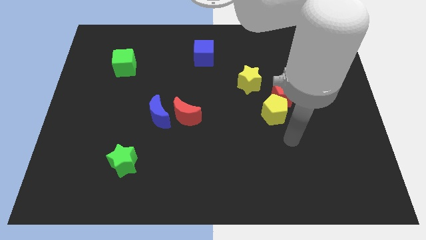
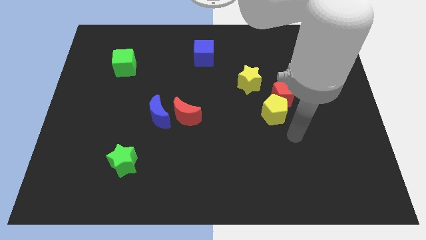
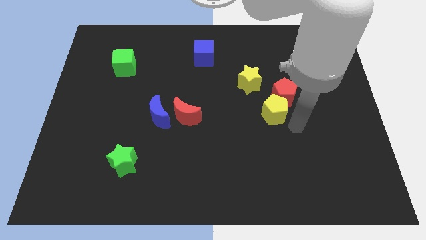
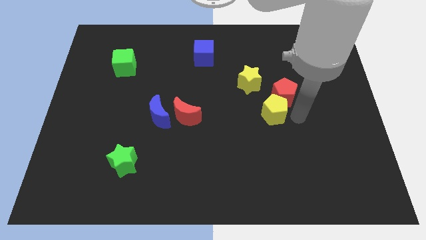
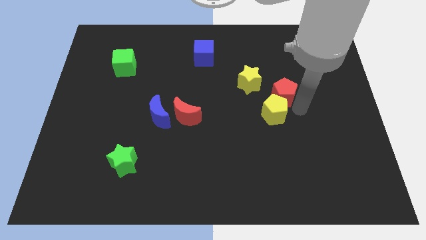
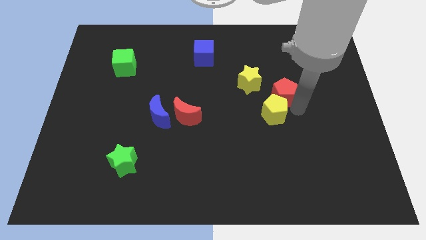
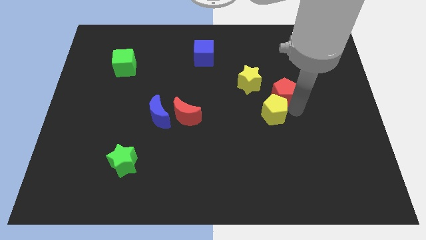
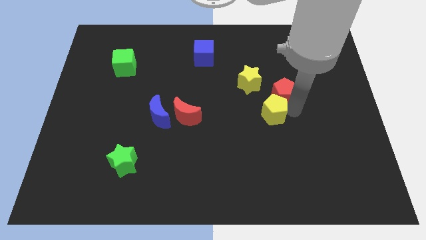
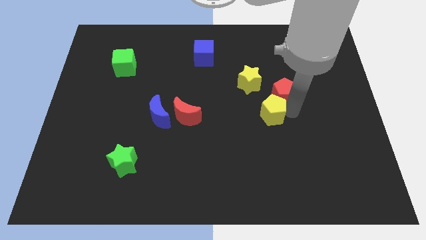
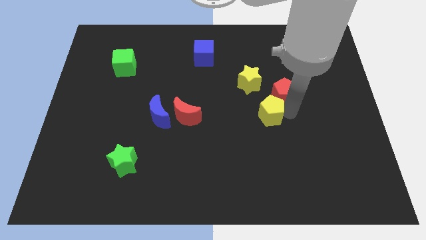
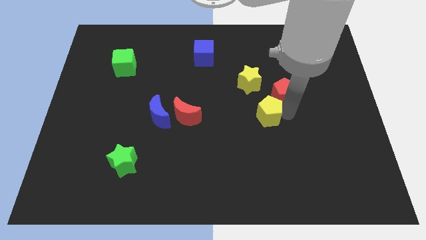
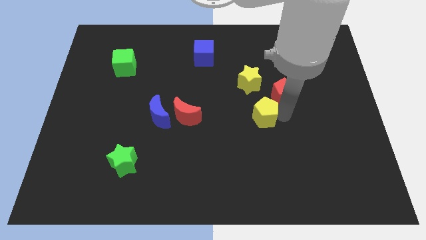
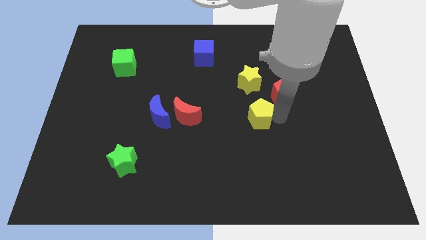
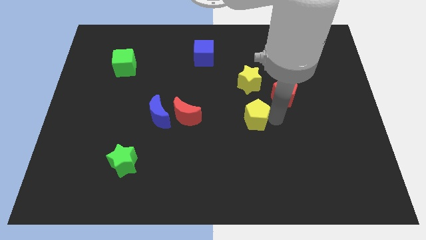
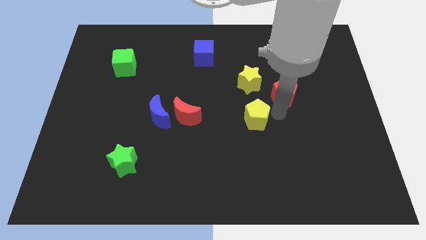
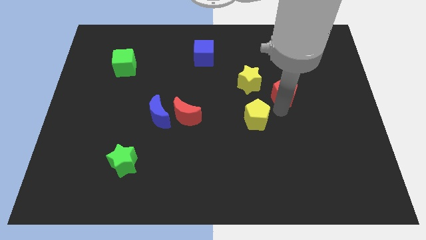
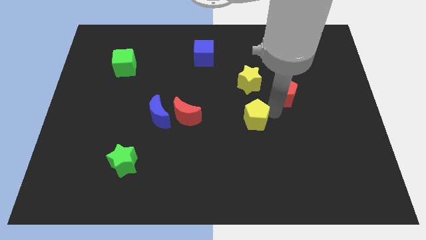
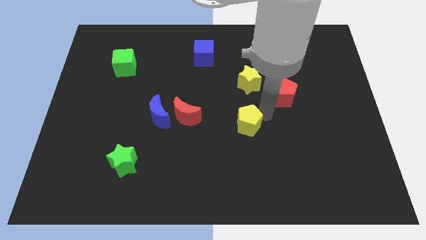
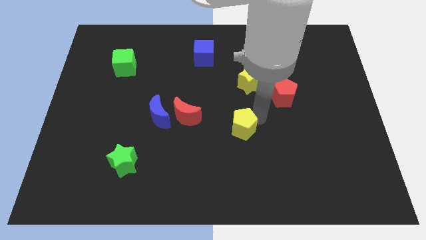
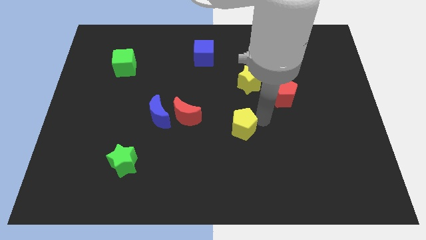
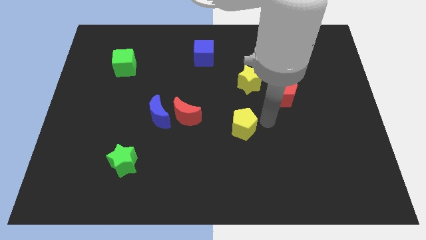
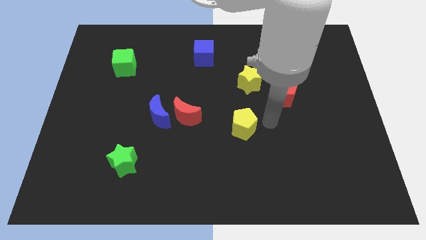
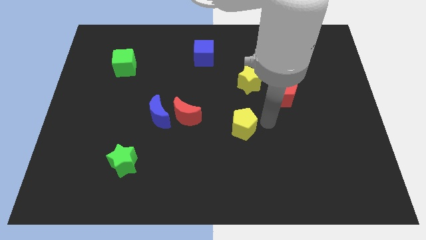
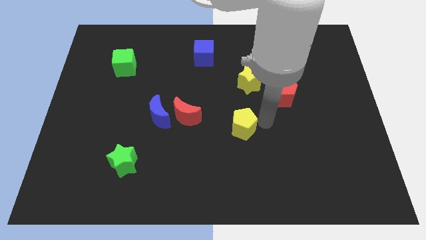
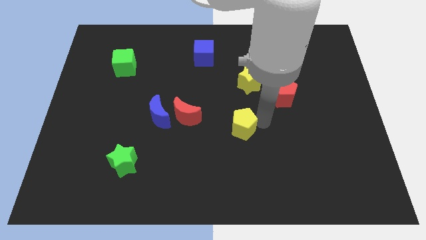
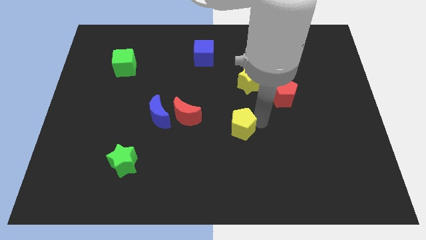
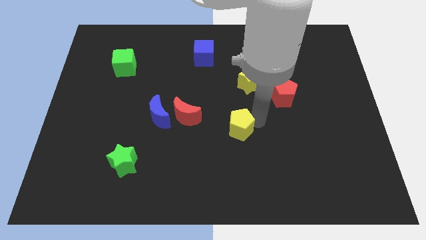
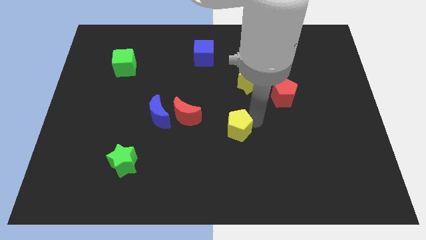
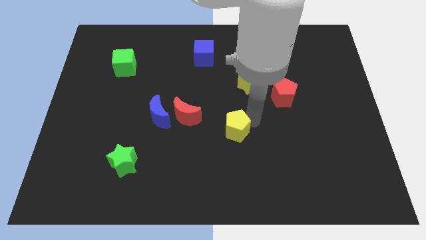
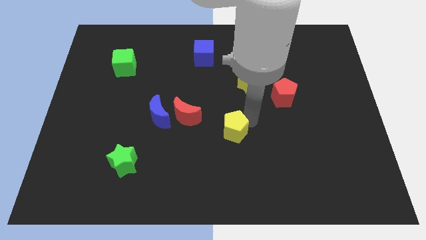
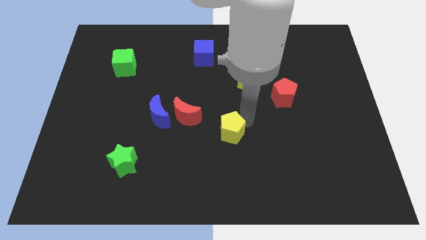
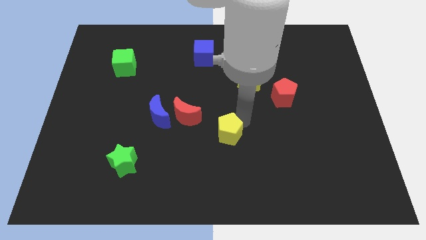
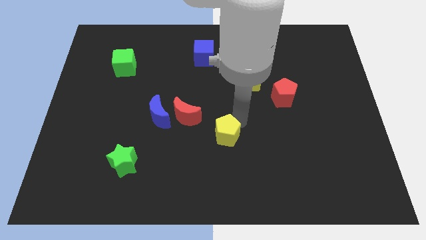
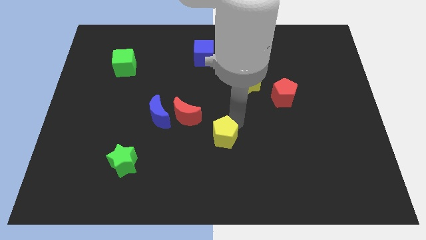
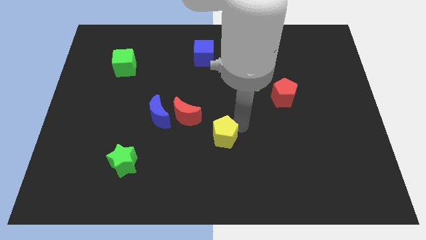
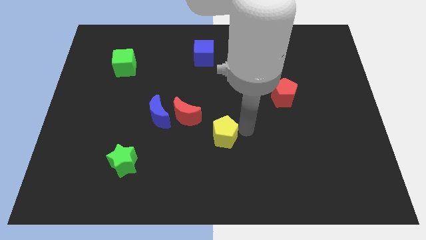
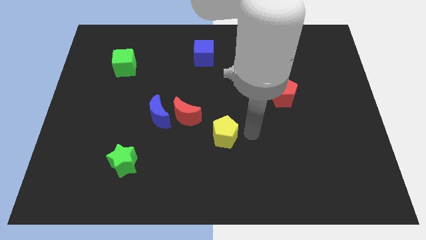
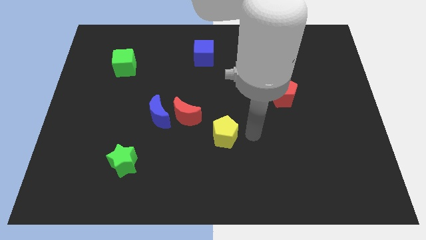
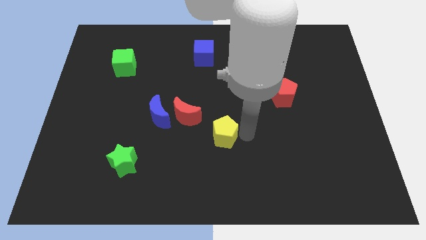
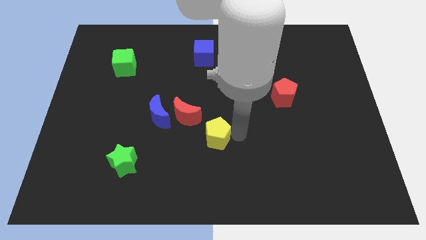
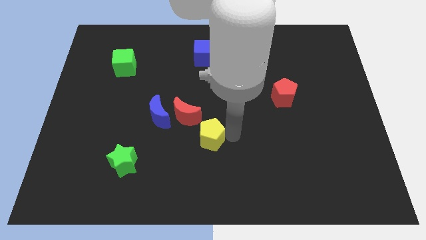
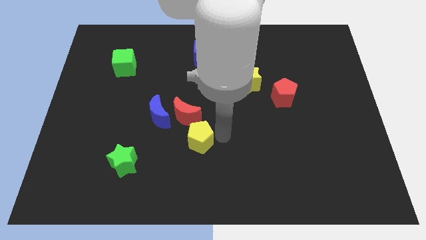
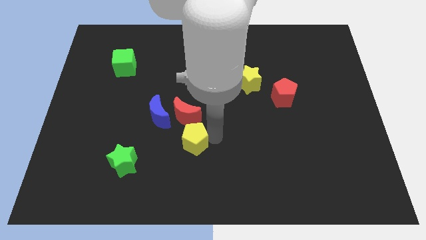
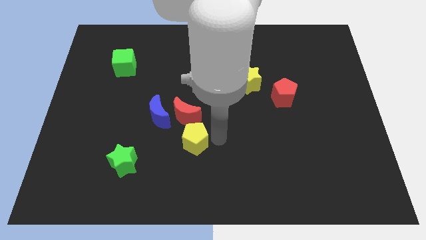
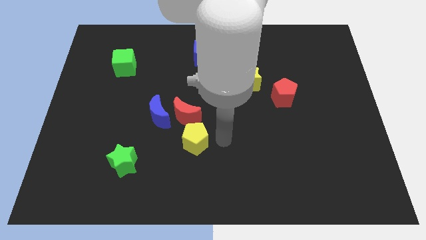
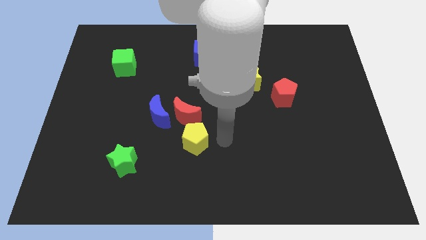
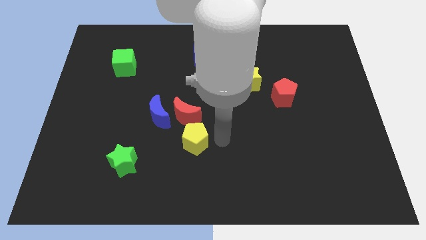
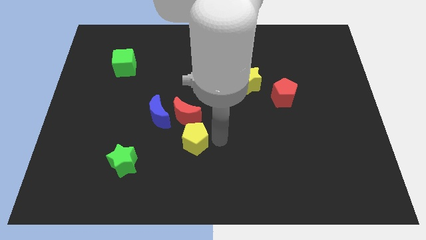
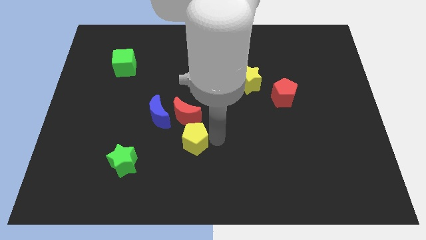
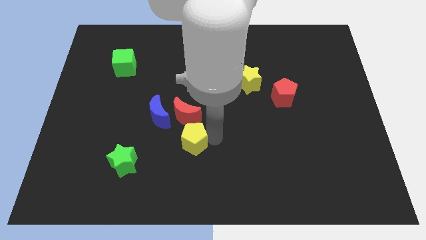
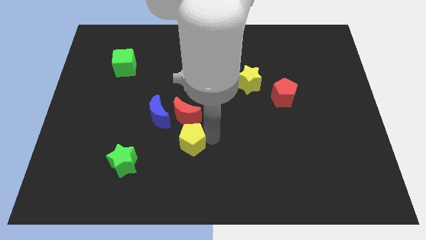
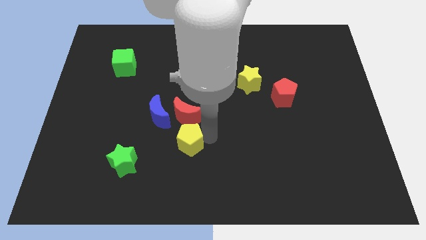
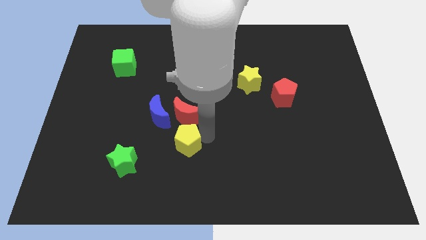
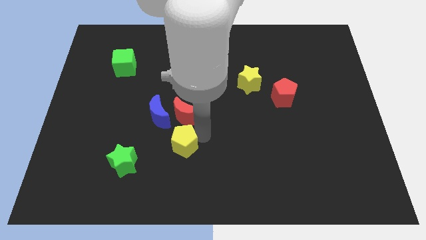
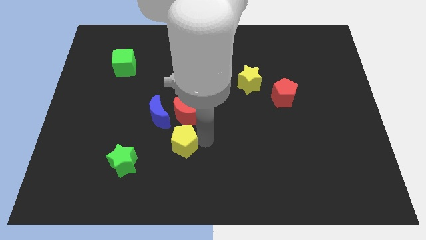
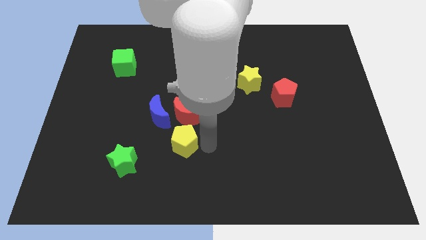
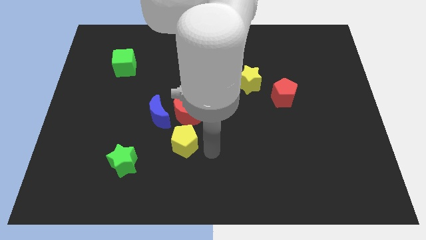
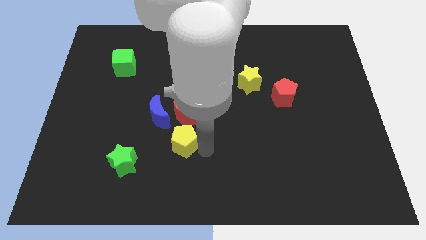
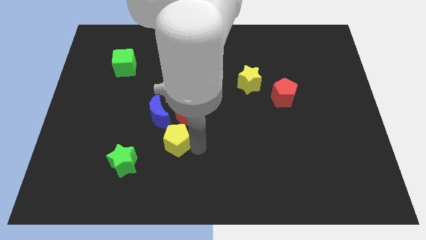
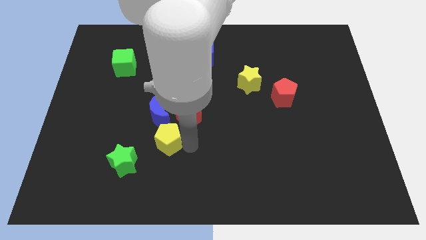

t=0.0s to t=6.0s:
move the yellow pentagon to the left

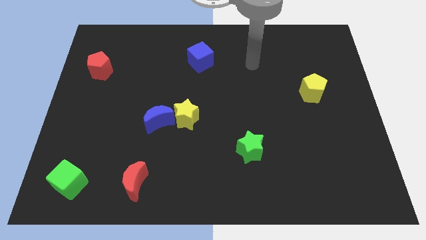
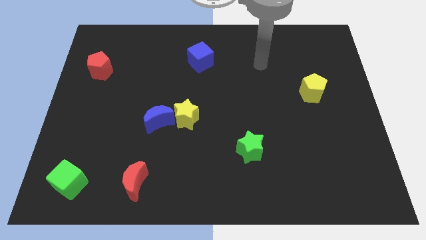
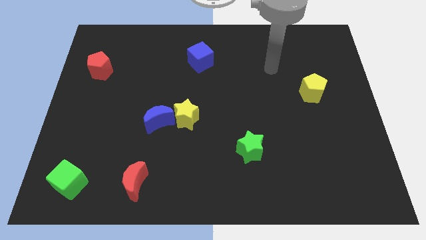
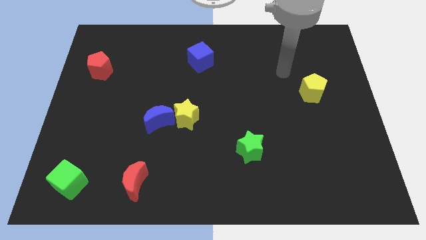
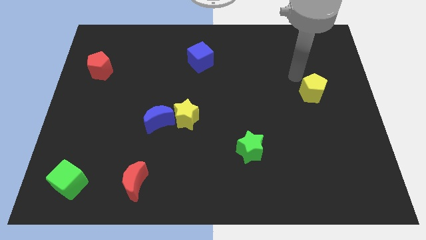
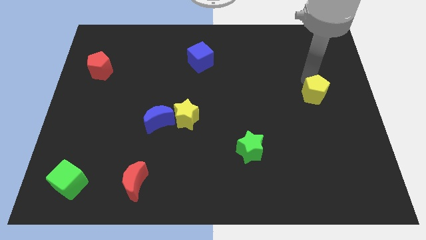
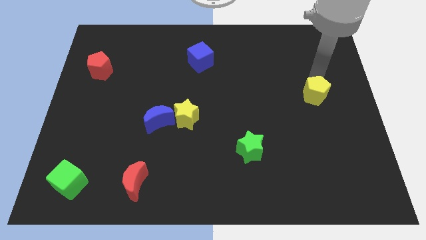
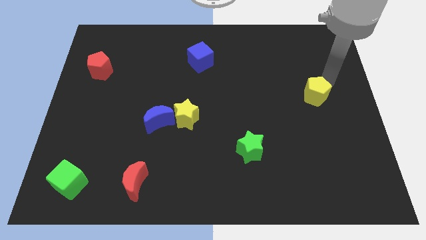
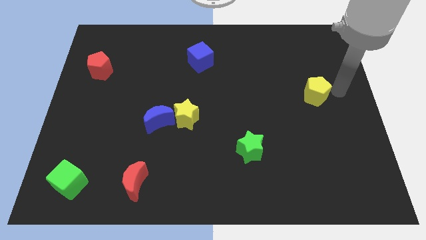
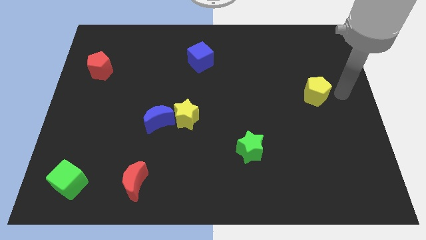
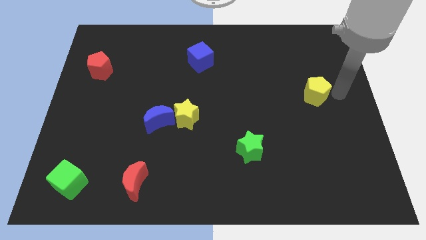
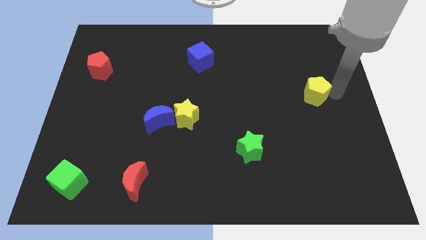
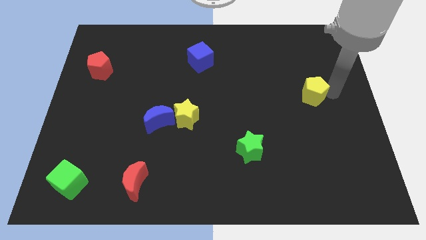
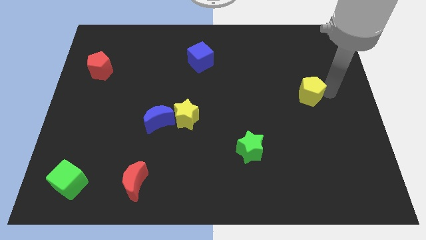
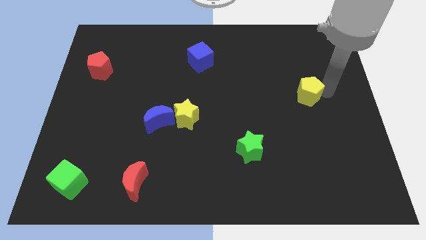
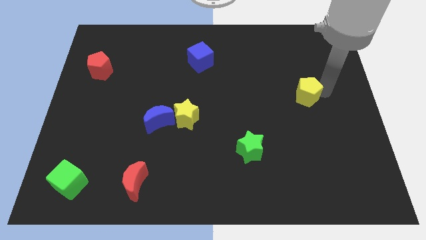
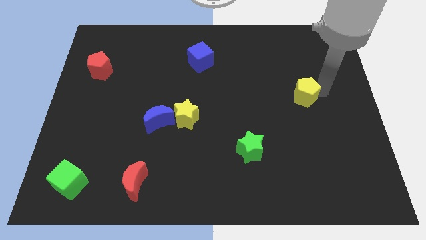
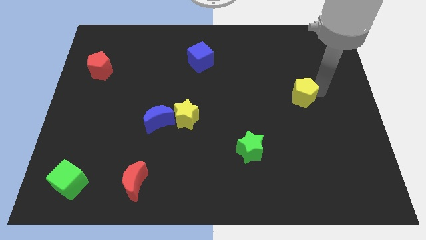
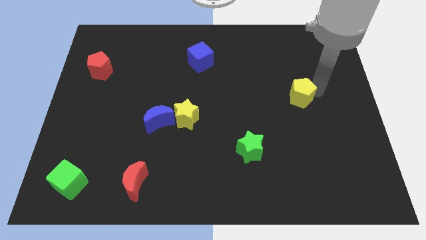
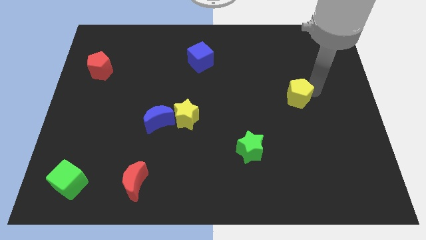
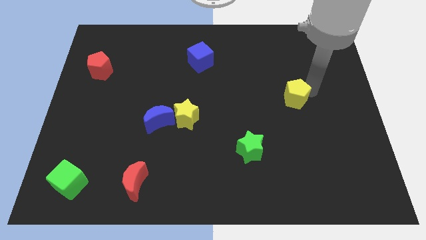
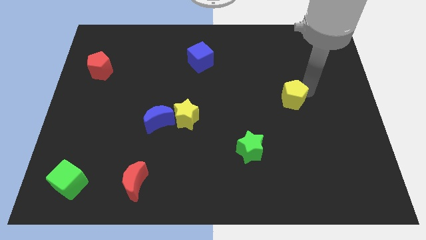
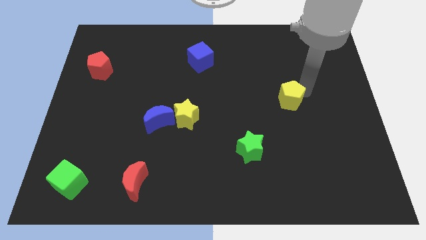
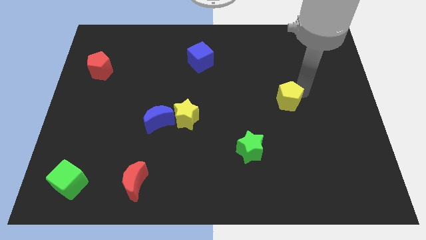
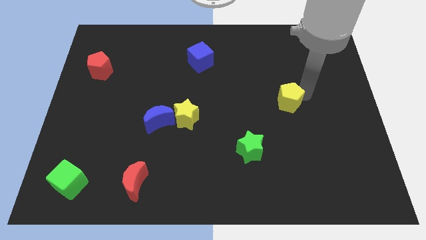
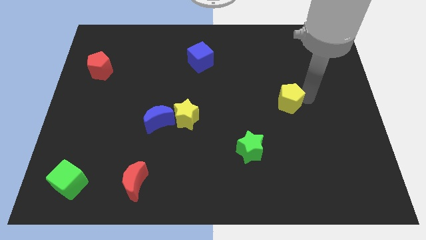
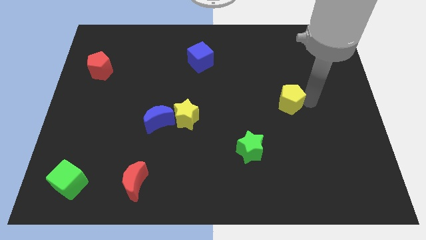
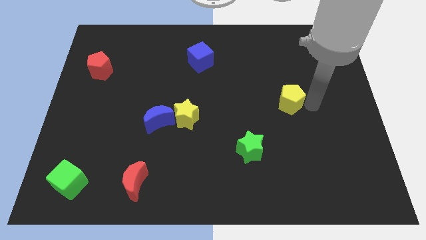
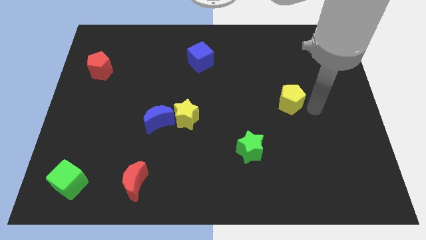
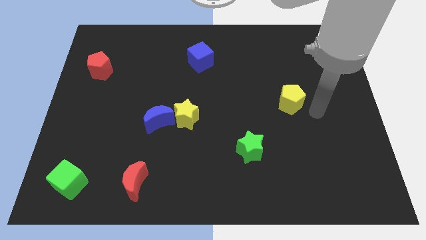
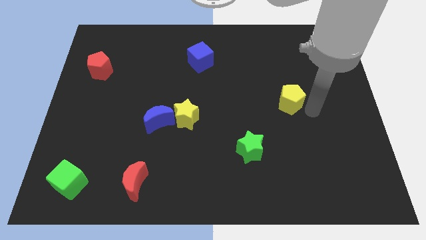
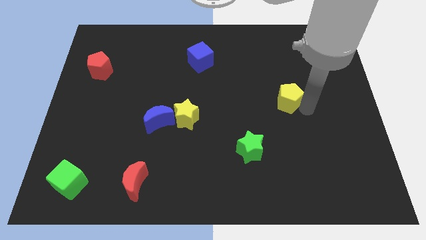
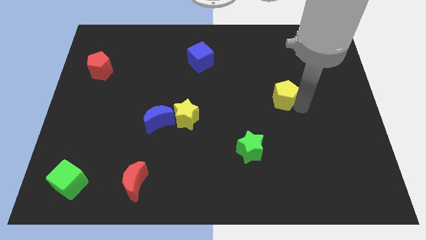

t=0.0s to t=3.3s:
push the yellow pentagon to the left slightly
